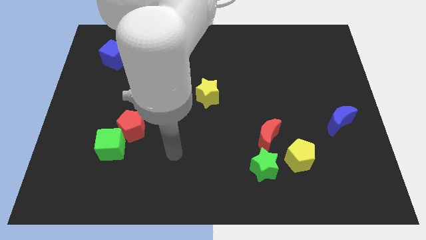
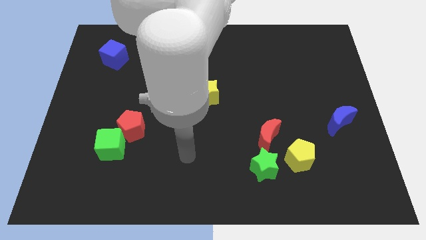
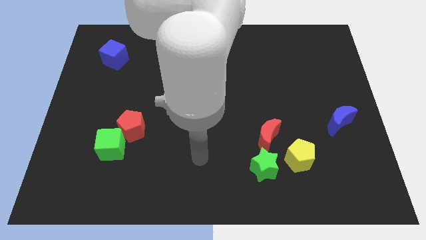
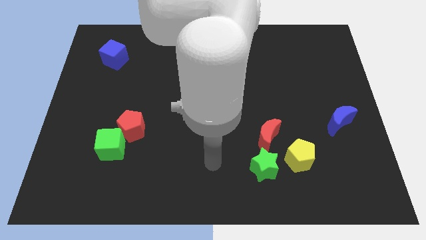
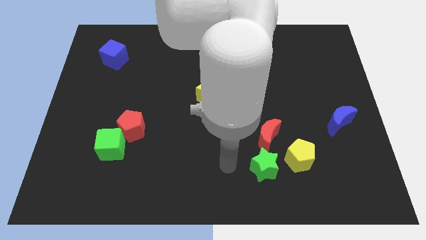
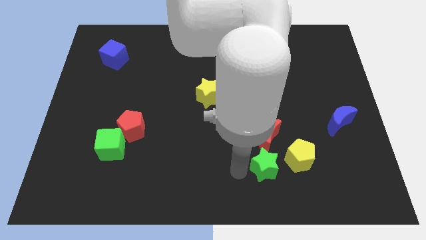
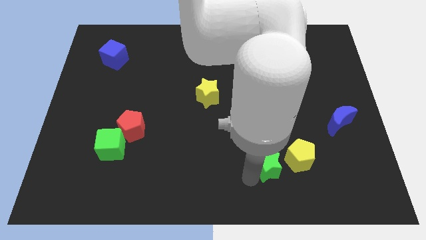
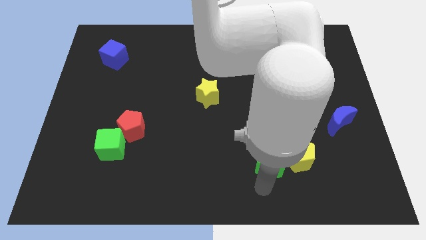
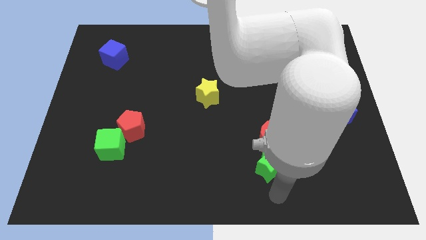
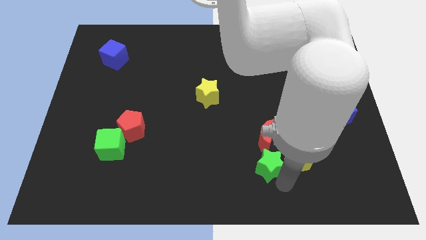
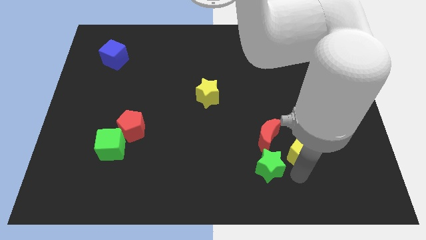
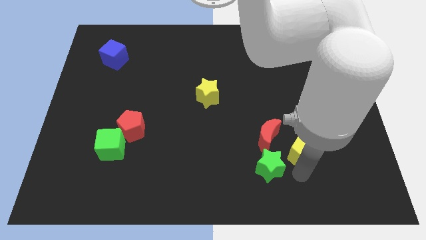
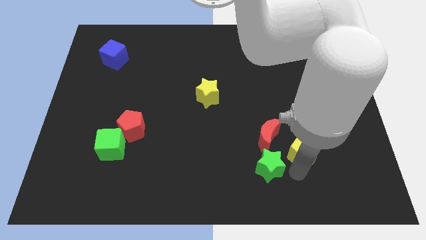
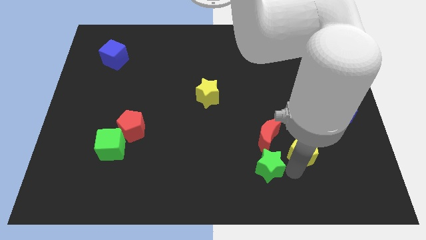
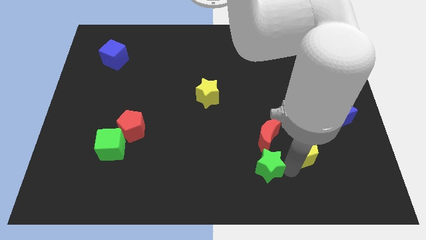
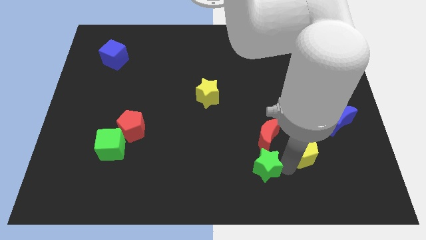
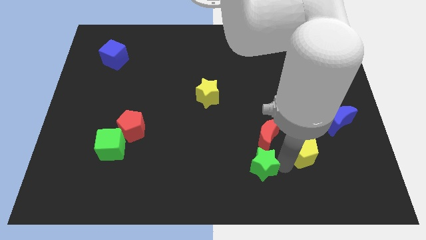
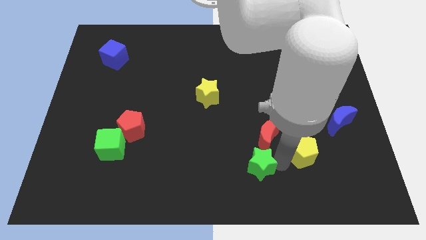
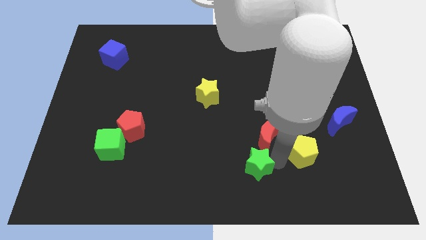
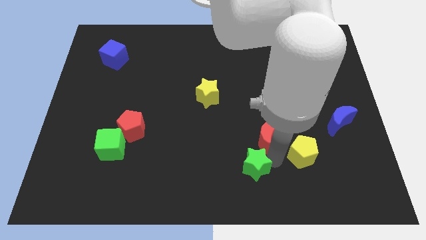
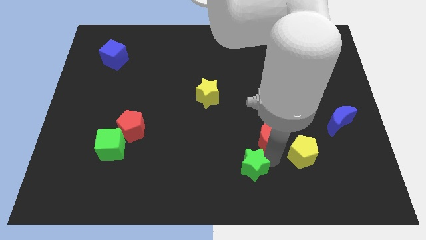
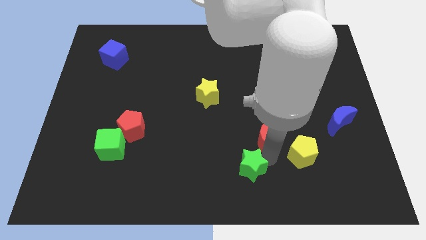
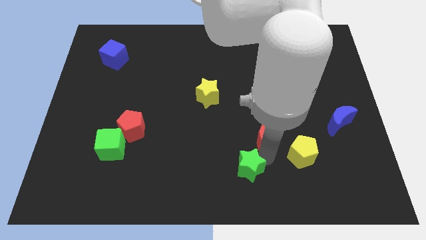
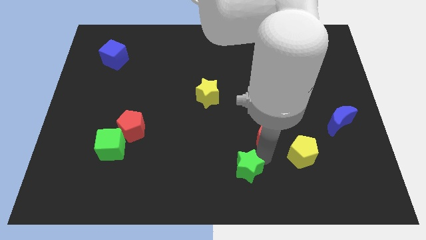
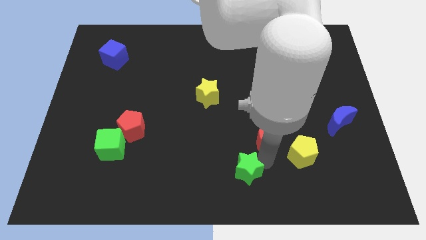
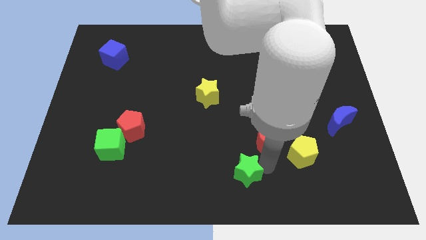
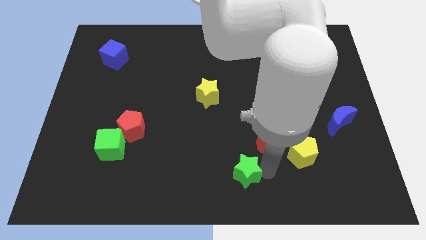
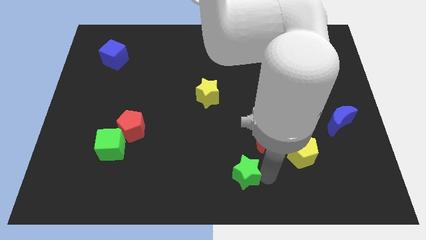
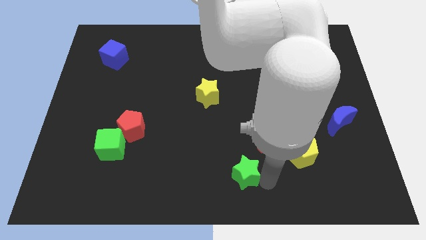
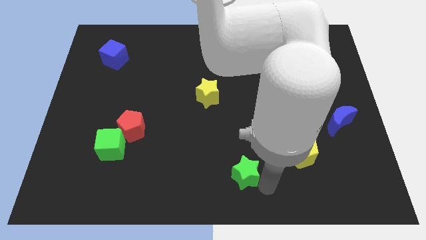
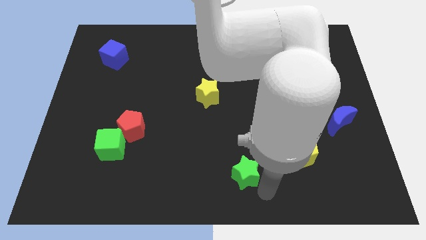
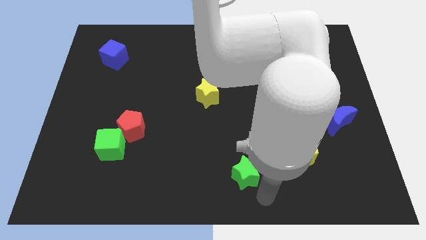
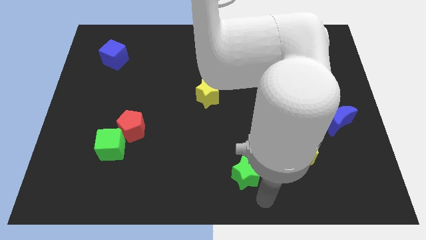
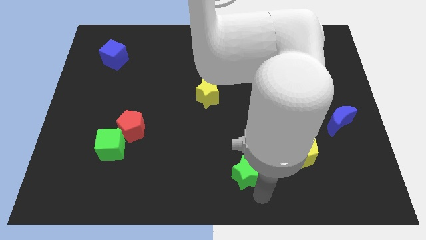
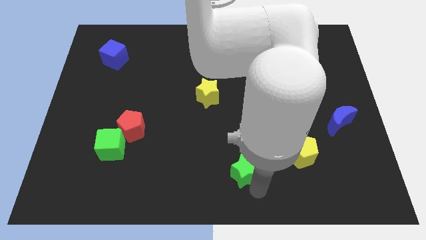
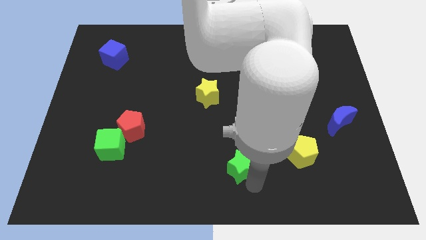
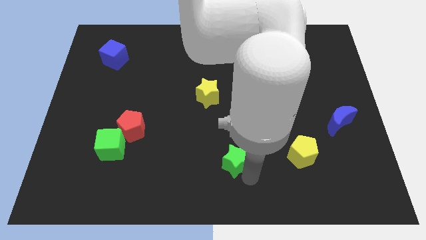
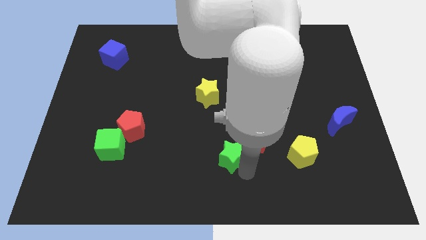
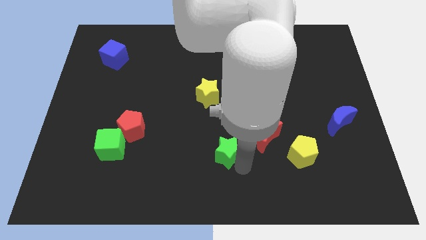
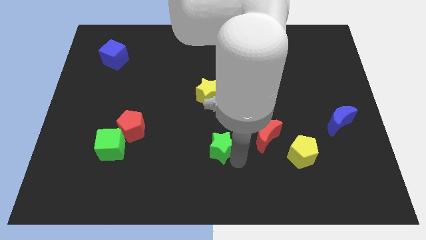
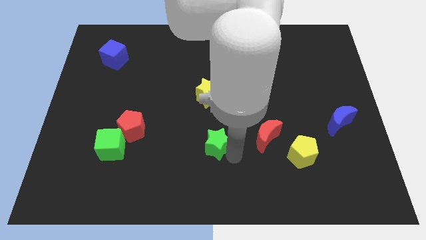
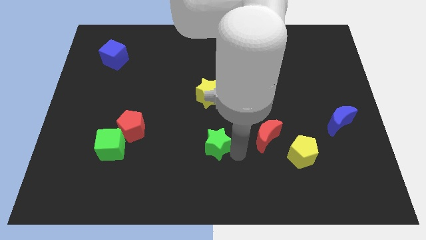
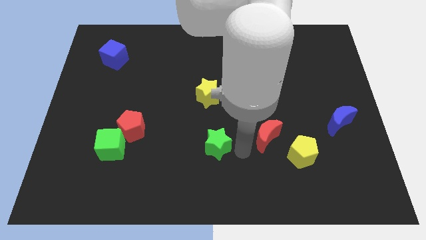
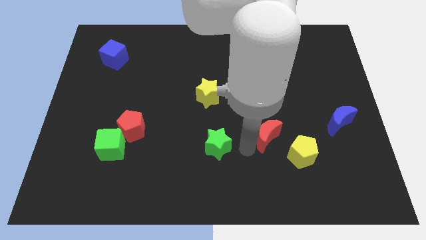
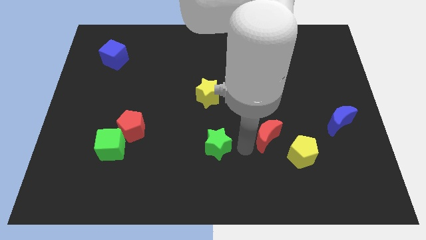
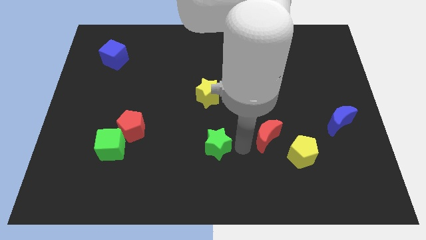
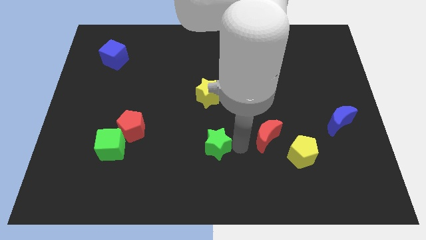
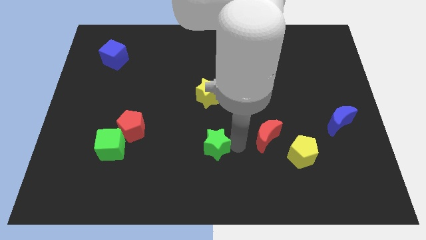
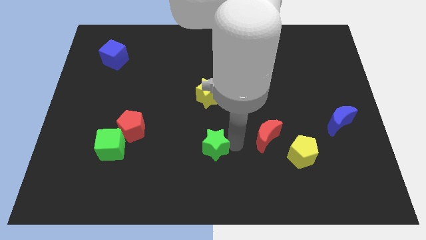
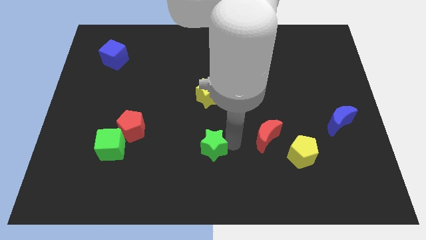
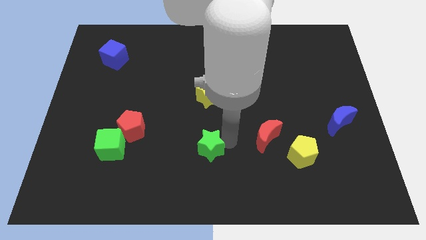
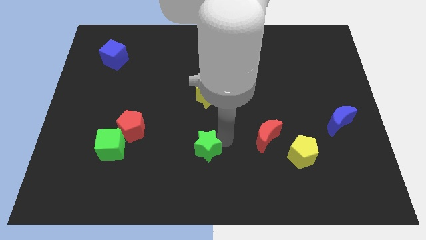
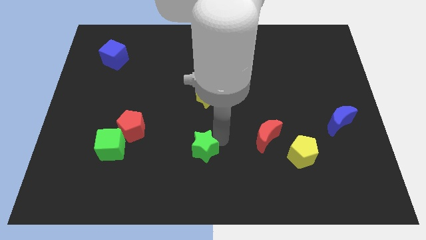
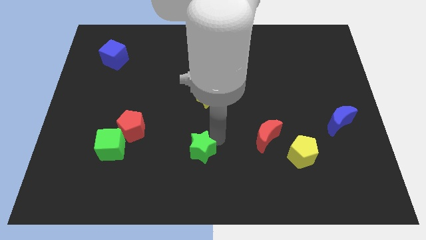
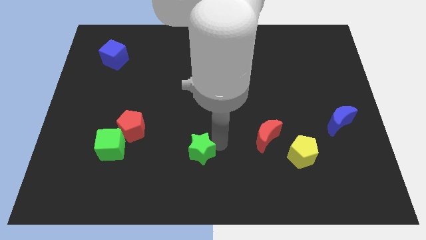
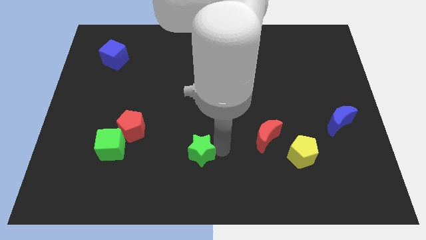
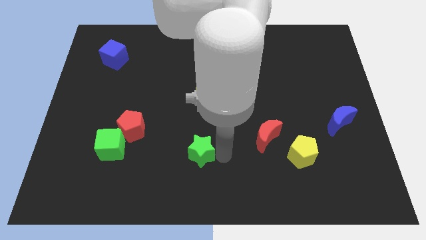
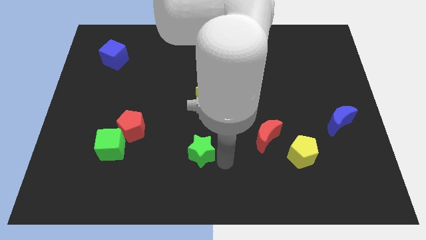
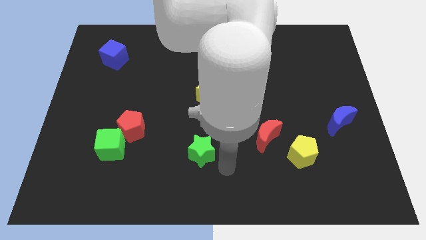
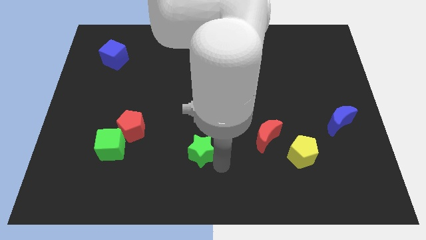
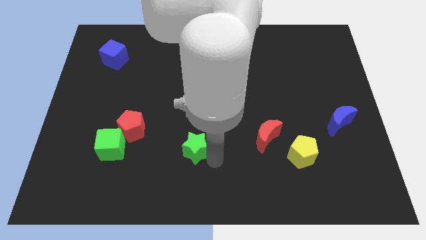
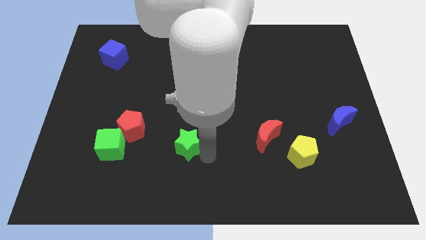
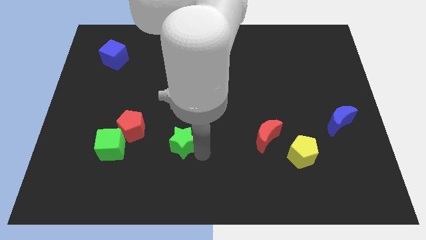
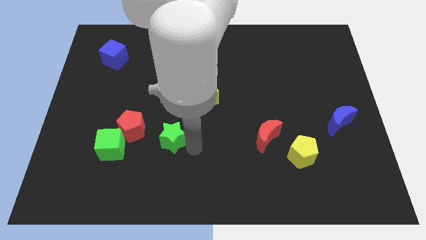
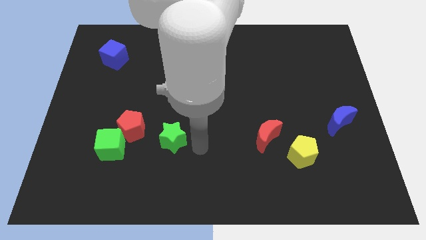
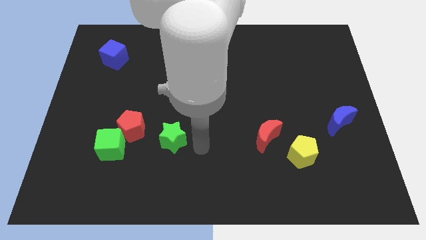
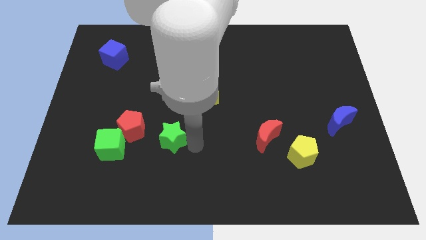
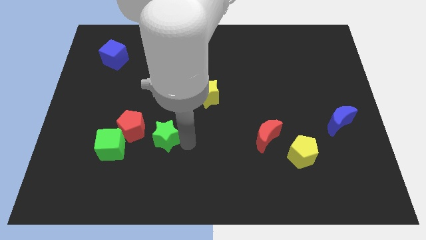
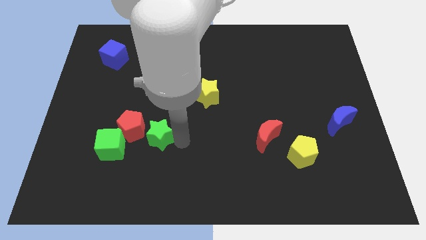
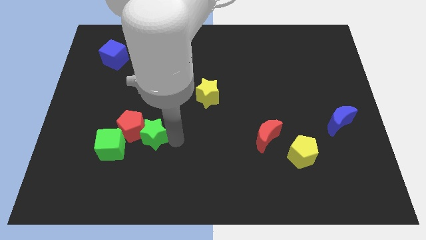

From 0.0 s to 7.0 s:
push the green star towards the red pentagon

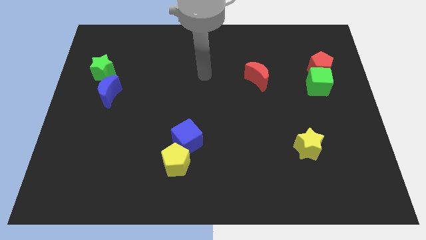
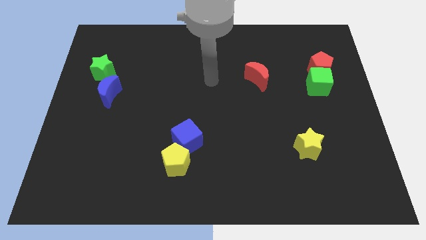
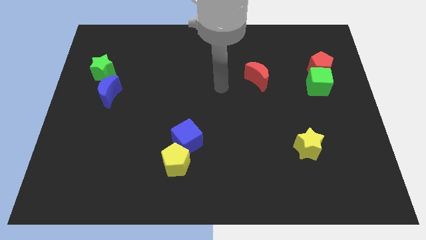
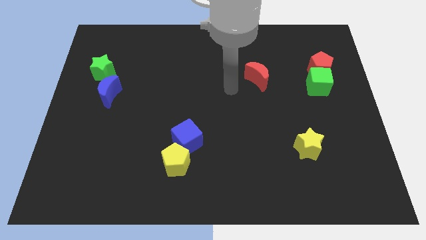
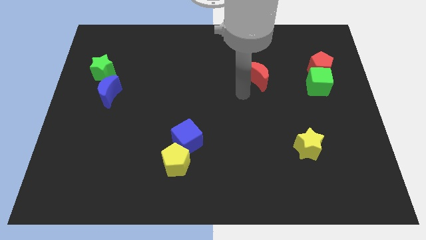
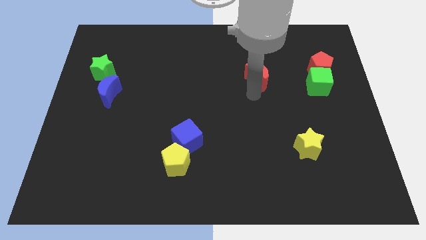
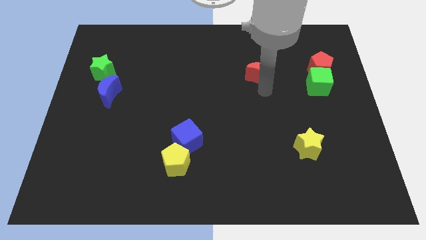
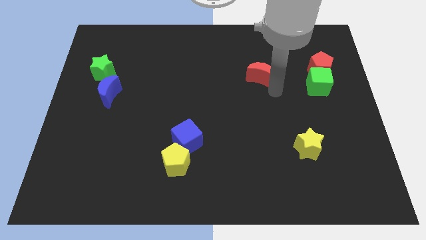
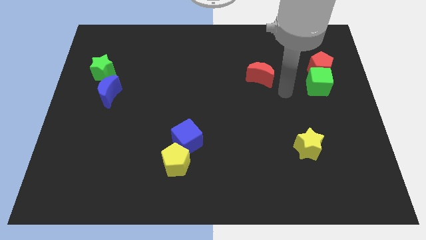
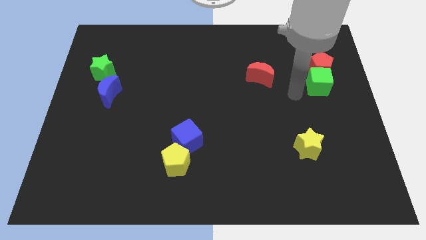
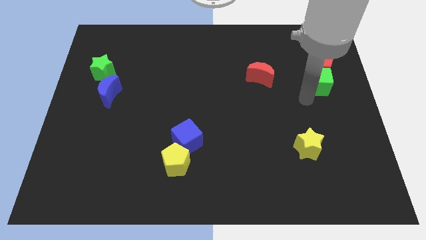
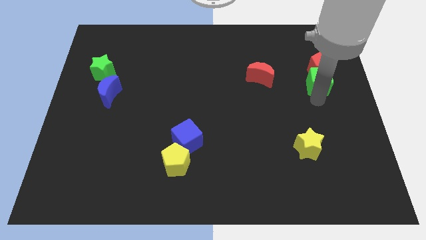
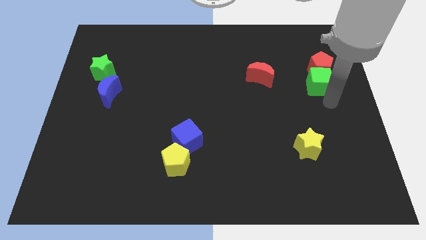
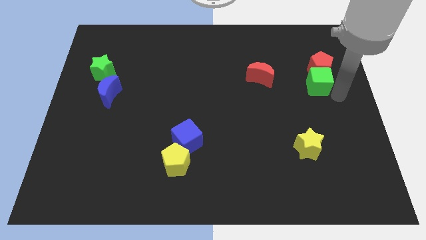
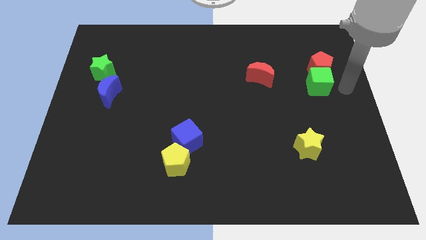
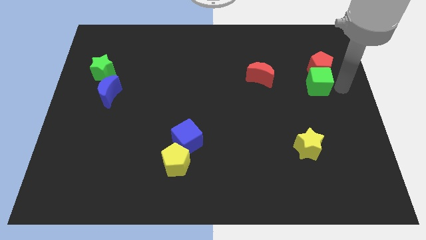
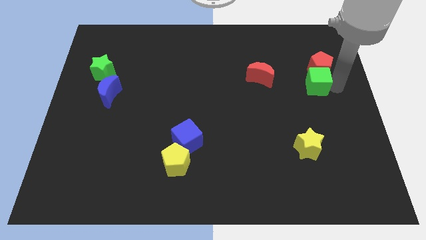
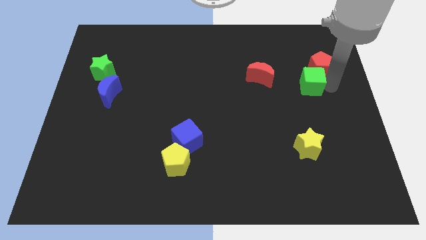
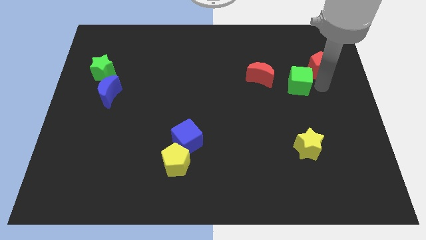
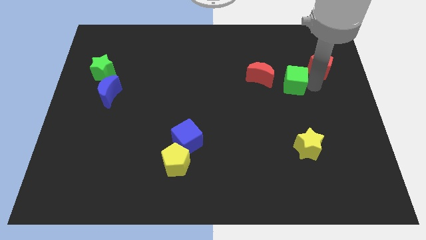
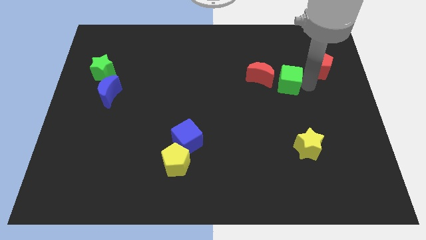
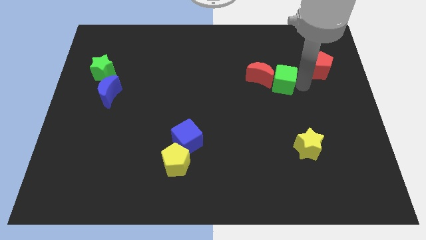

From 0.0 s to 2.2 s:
push the green cube next to the red moon
